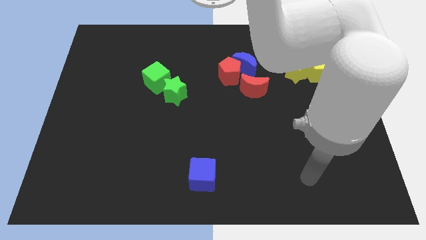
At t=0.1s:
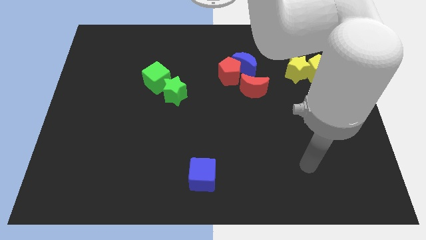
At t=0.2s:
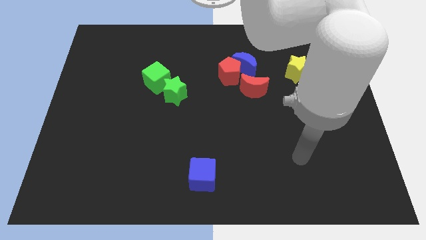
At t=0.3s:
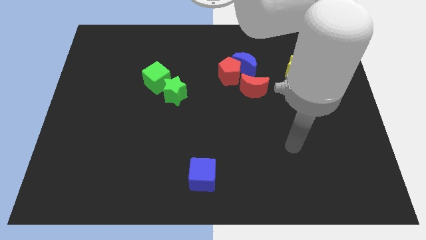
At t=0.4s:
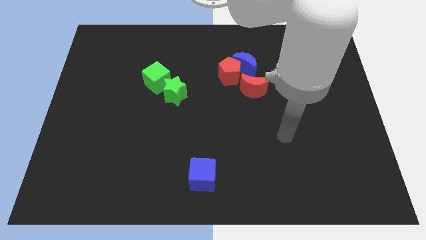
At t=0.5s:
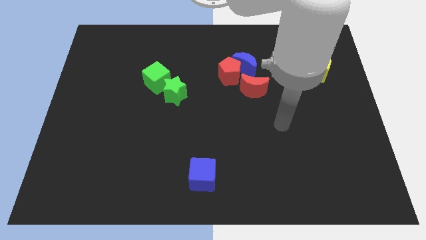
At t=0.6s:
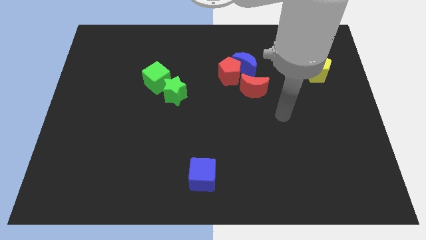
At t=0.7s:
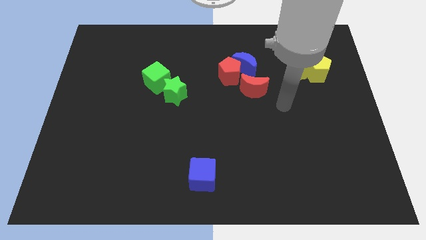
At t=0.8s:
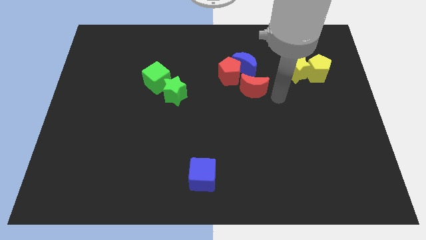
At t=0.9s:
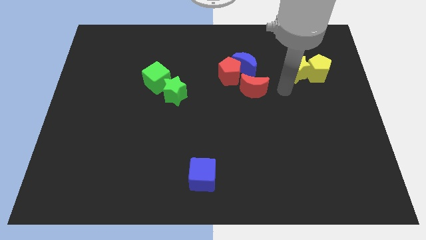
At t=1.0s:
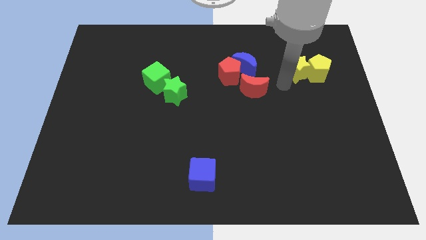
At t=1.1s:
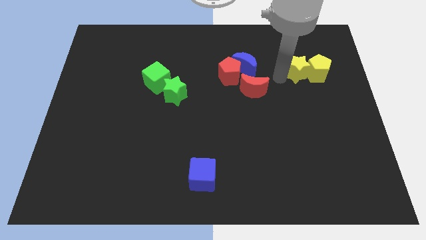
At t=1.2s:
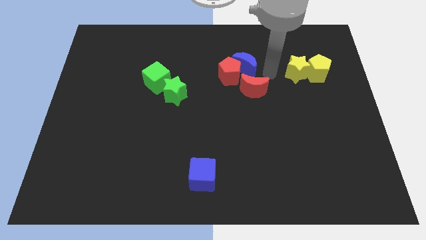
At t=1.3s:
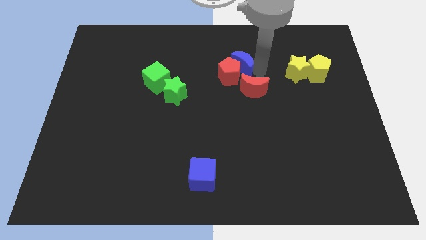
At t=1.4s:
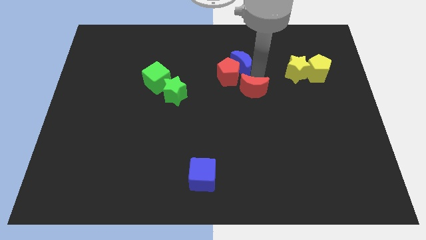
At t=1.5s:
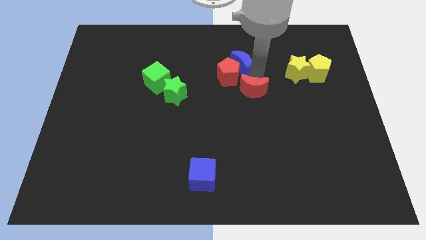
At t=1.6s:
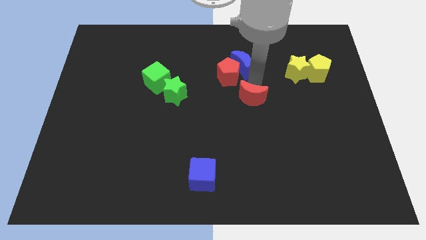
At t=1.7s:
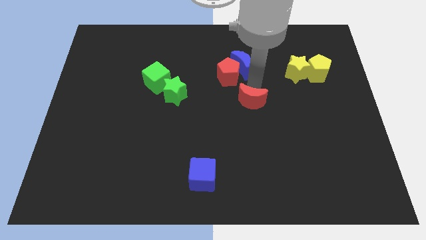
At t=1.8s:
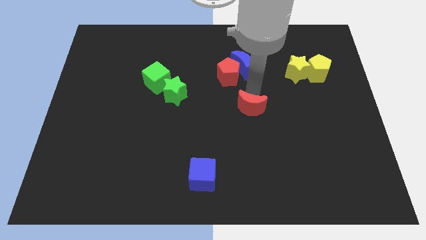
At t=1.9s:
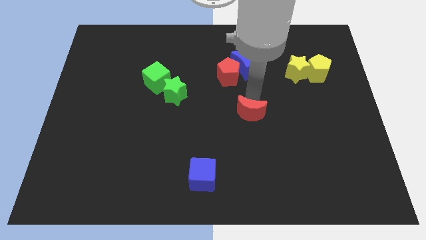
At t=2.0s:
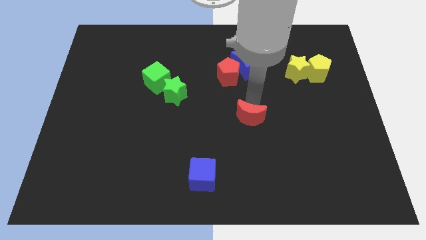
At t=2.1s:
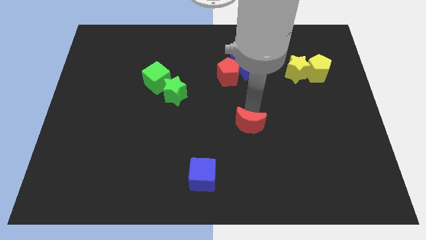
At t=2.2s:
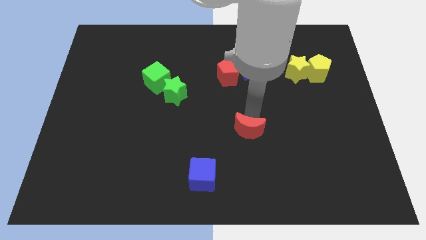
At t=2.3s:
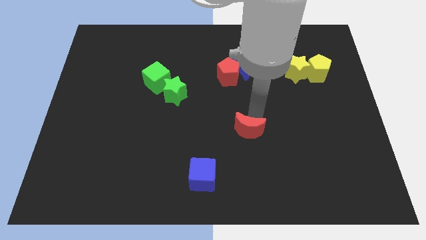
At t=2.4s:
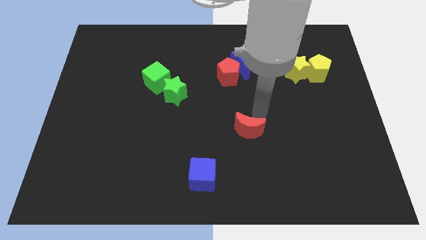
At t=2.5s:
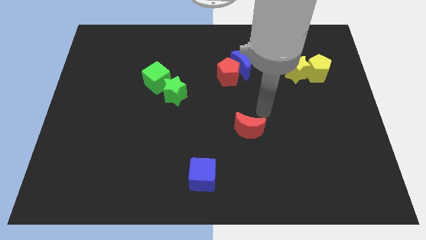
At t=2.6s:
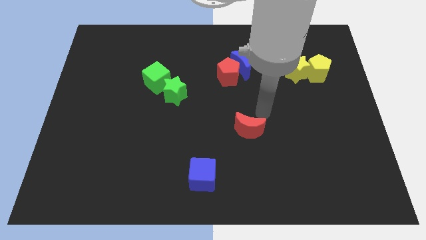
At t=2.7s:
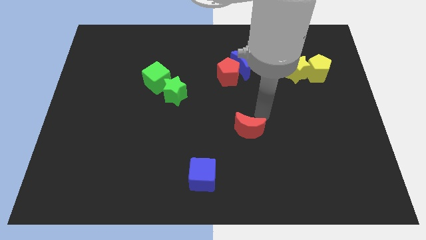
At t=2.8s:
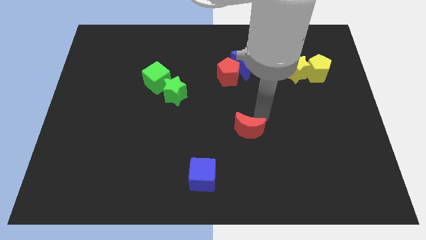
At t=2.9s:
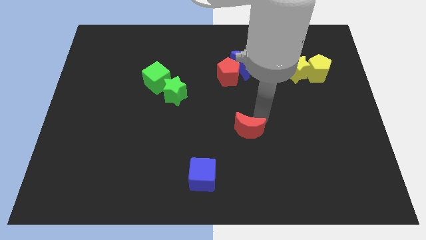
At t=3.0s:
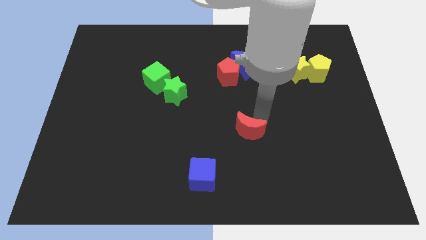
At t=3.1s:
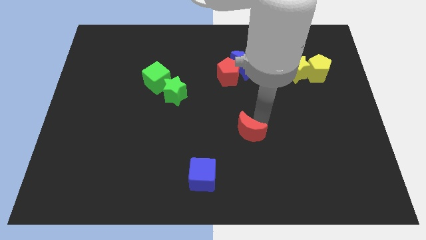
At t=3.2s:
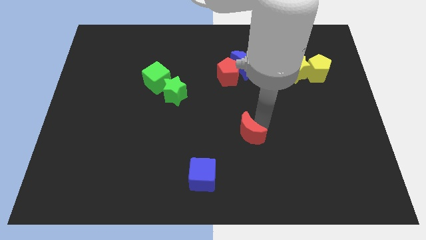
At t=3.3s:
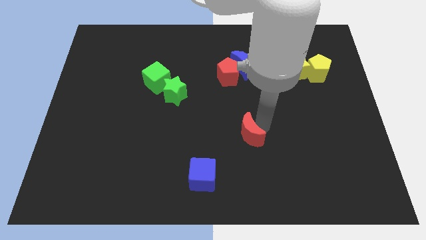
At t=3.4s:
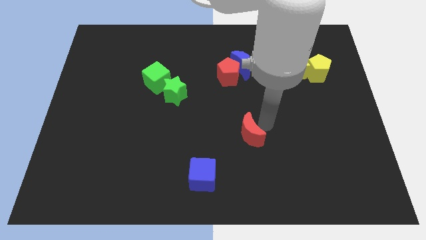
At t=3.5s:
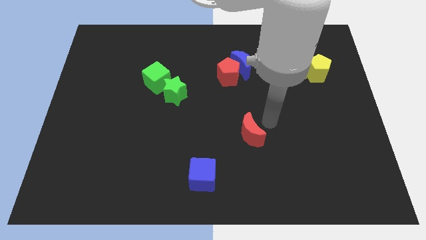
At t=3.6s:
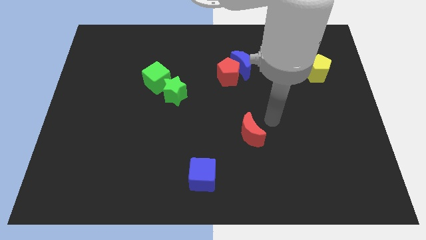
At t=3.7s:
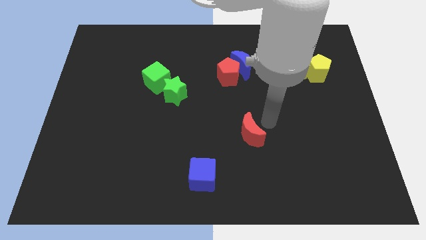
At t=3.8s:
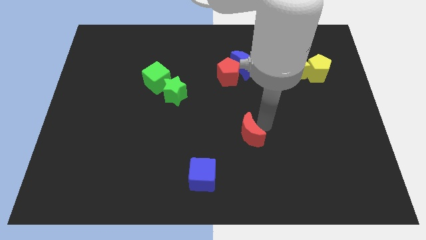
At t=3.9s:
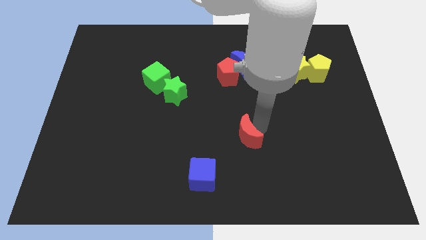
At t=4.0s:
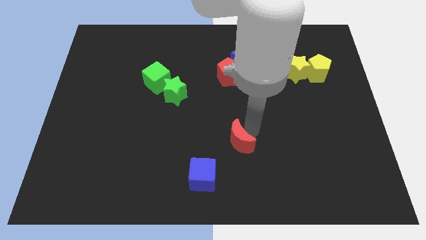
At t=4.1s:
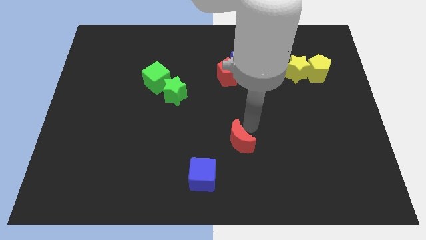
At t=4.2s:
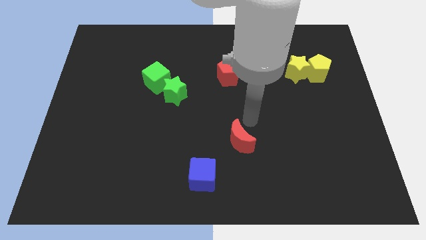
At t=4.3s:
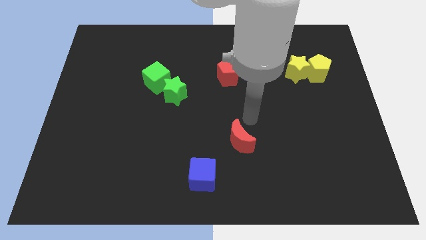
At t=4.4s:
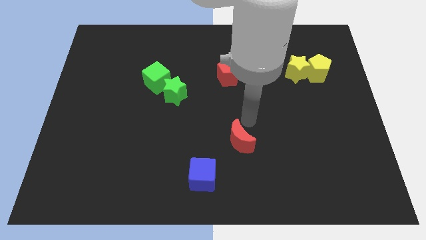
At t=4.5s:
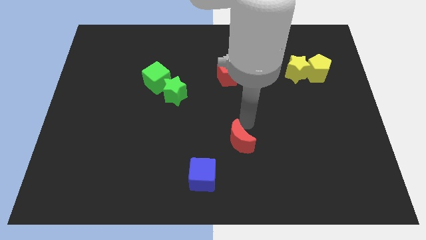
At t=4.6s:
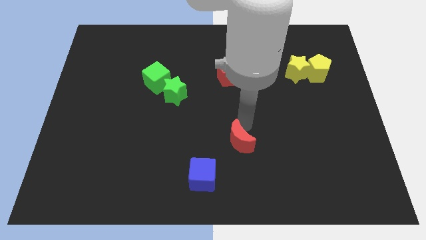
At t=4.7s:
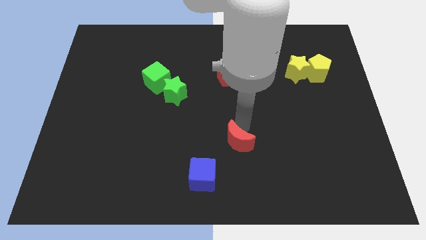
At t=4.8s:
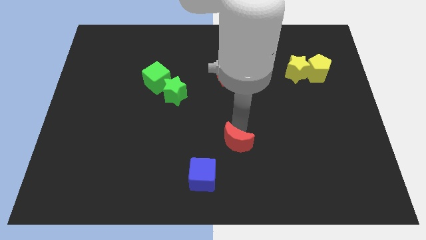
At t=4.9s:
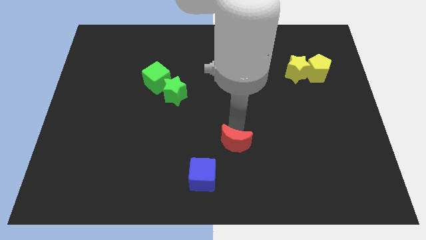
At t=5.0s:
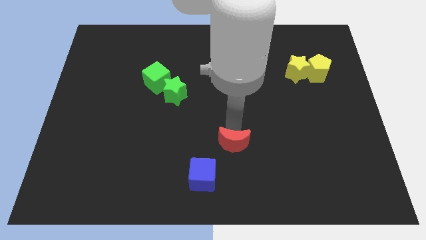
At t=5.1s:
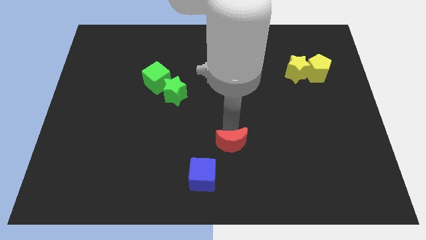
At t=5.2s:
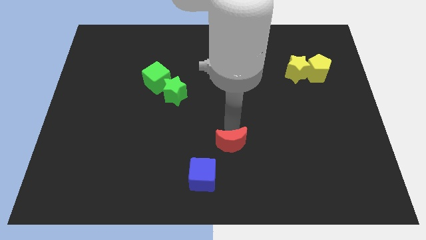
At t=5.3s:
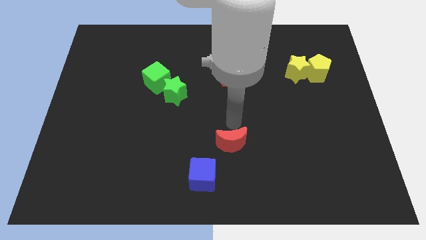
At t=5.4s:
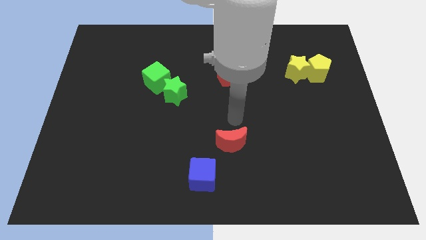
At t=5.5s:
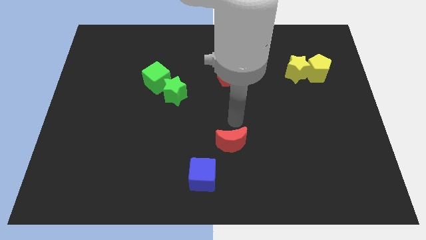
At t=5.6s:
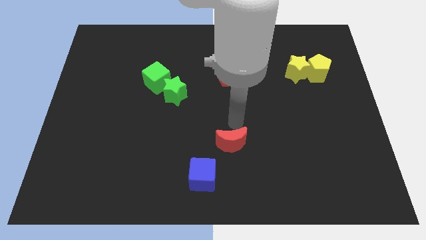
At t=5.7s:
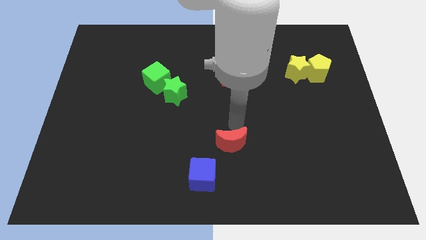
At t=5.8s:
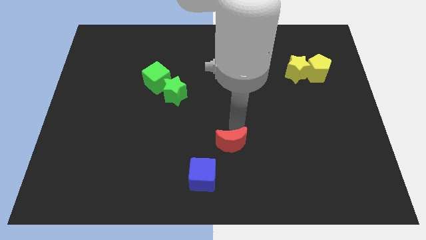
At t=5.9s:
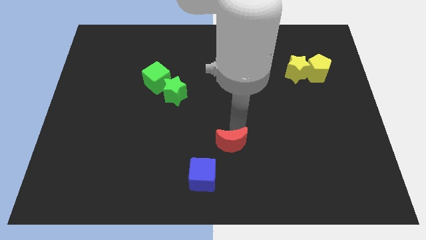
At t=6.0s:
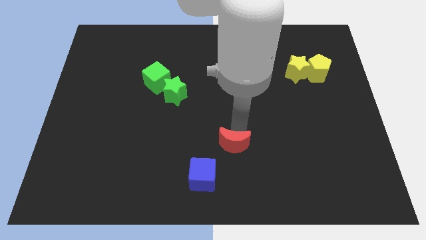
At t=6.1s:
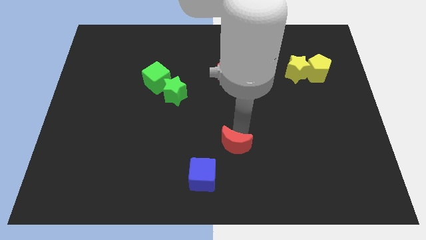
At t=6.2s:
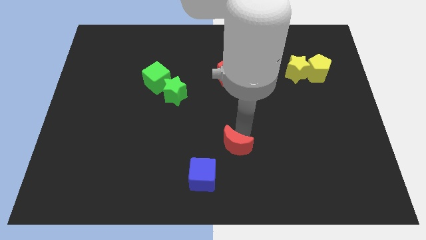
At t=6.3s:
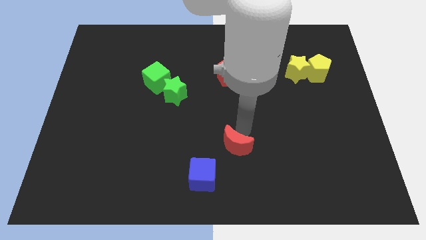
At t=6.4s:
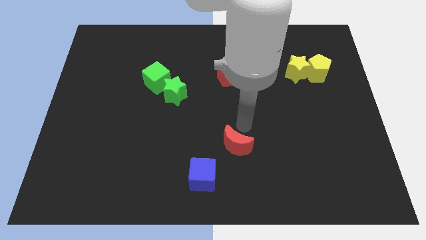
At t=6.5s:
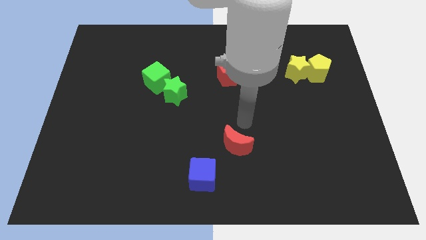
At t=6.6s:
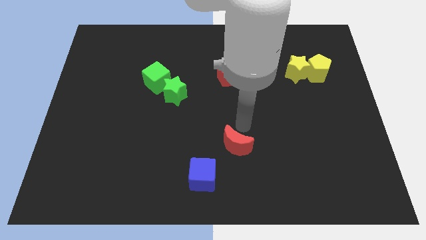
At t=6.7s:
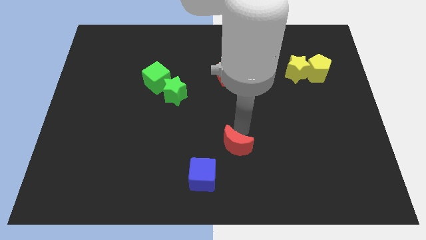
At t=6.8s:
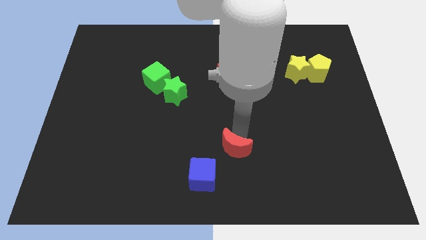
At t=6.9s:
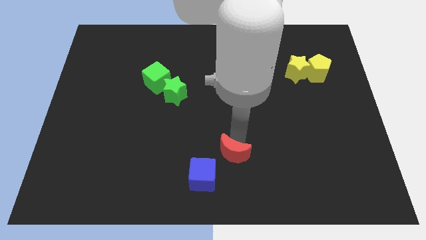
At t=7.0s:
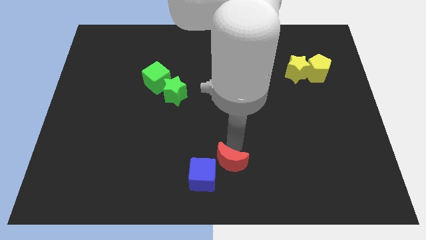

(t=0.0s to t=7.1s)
push the red moon to the bottom
